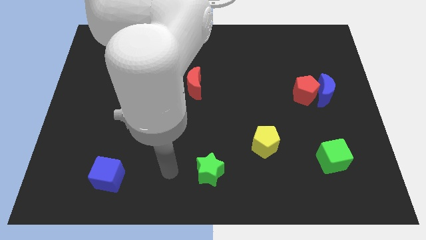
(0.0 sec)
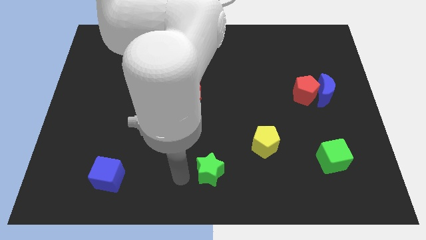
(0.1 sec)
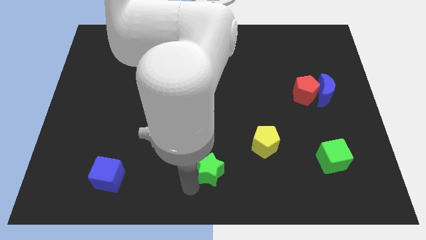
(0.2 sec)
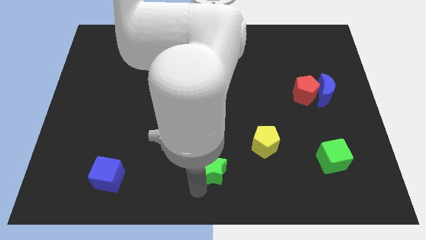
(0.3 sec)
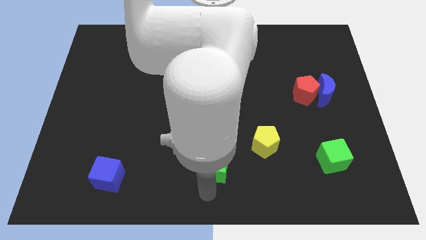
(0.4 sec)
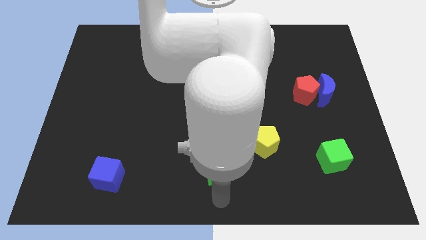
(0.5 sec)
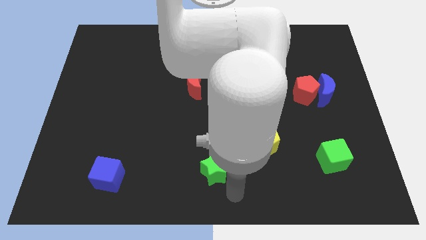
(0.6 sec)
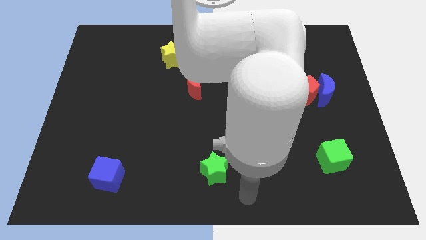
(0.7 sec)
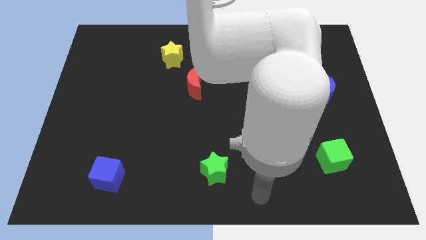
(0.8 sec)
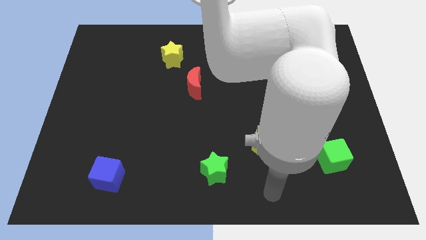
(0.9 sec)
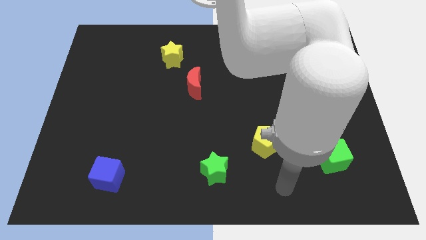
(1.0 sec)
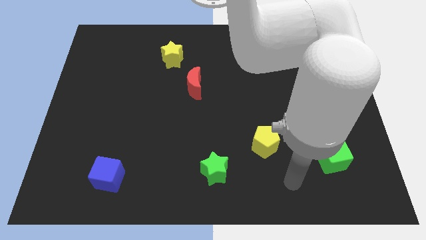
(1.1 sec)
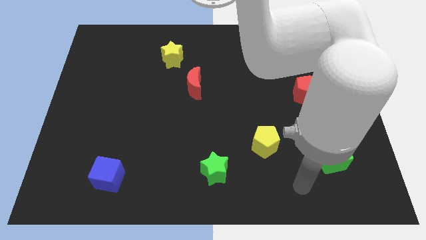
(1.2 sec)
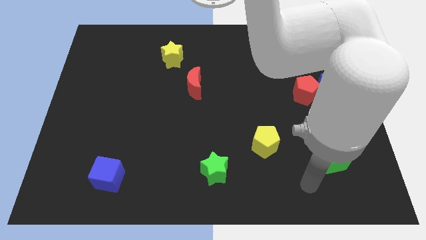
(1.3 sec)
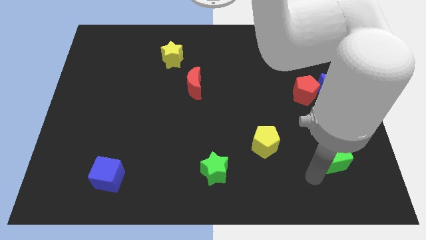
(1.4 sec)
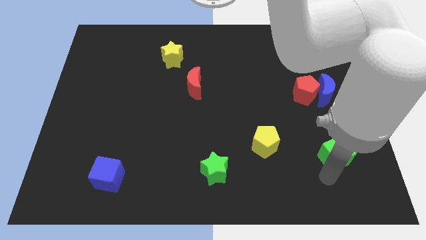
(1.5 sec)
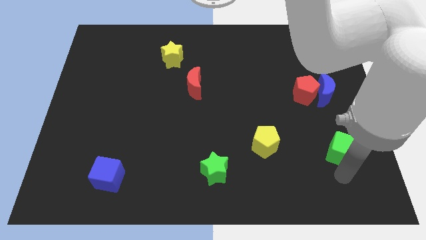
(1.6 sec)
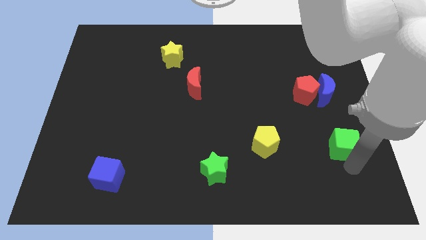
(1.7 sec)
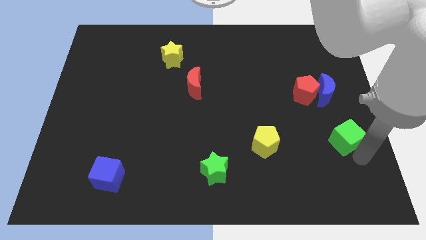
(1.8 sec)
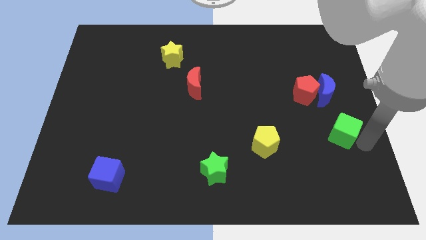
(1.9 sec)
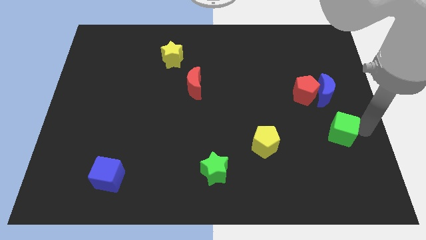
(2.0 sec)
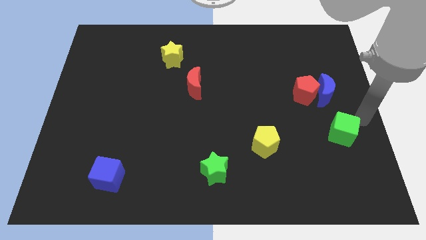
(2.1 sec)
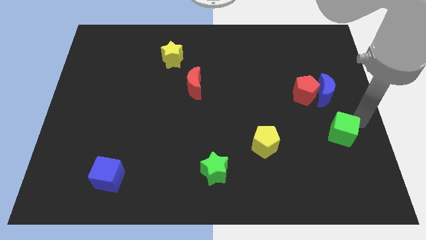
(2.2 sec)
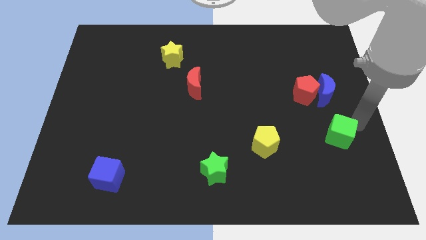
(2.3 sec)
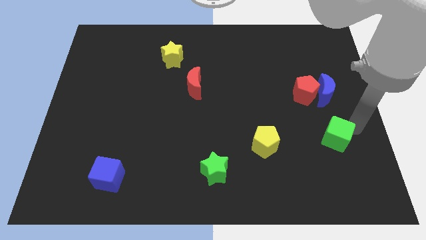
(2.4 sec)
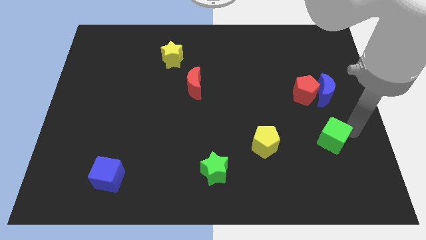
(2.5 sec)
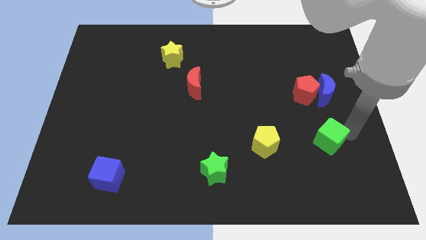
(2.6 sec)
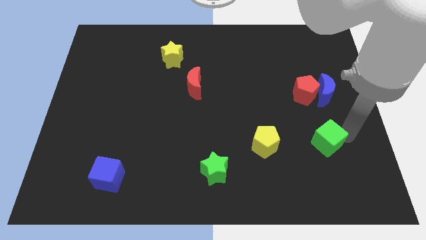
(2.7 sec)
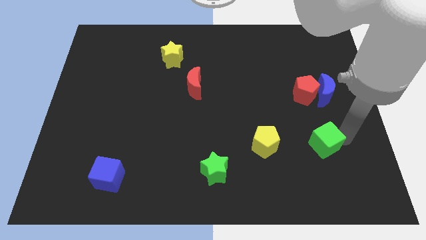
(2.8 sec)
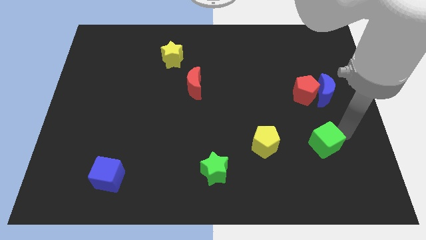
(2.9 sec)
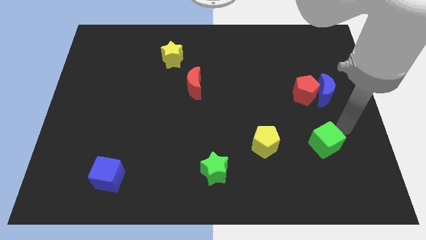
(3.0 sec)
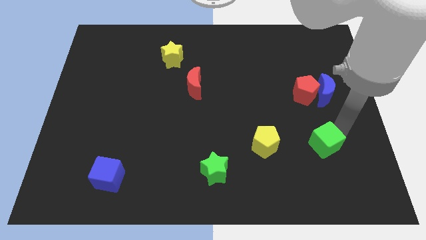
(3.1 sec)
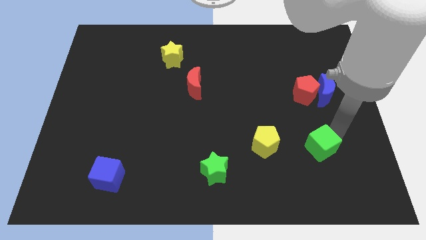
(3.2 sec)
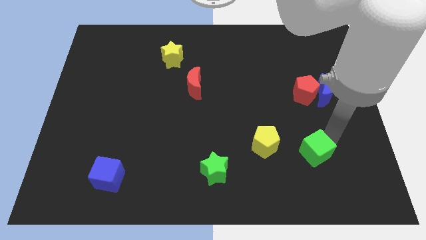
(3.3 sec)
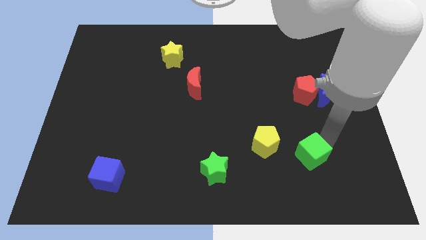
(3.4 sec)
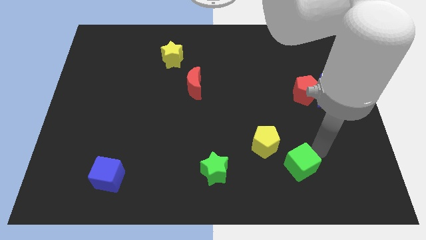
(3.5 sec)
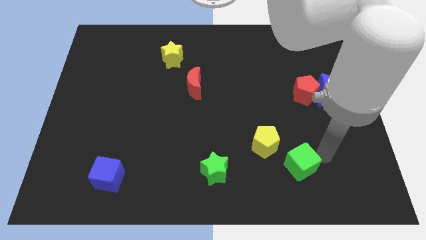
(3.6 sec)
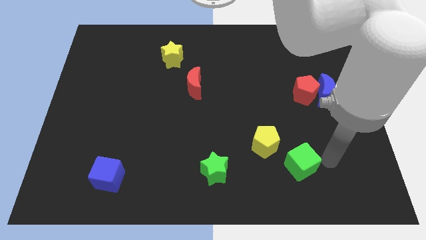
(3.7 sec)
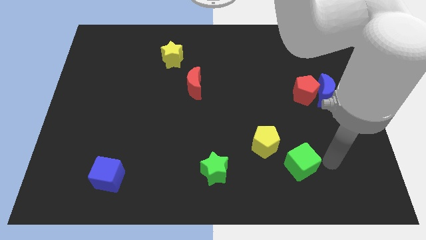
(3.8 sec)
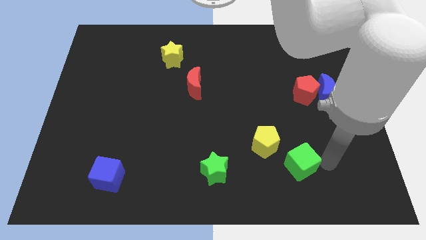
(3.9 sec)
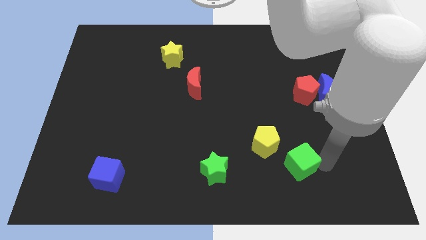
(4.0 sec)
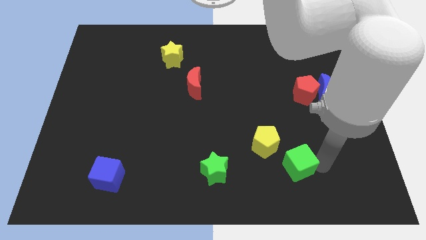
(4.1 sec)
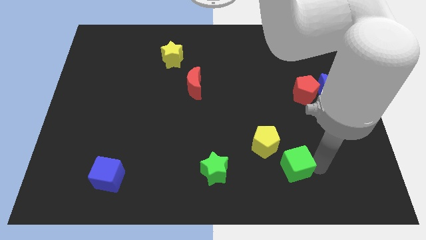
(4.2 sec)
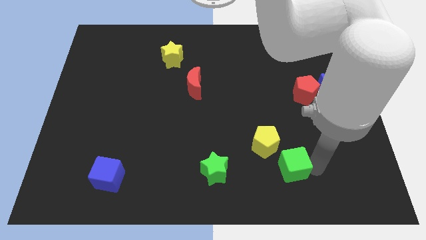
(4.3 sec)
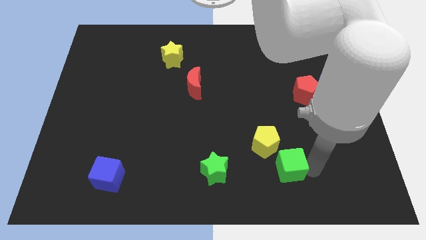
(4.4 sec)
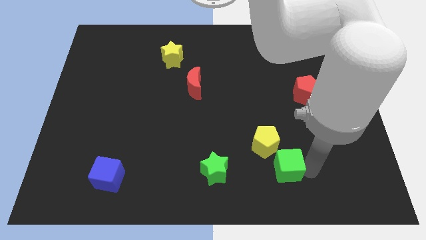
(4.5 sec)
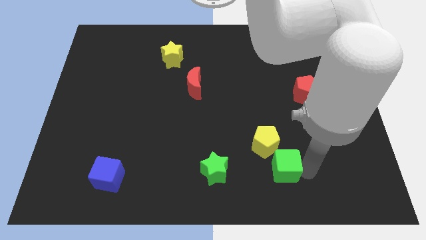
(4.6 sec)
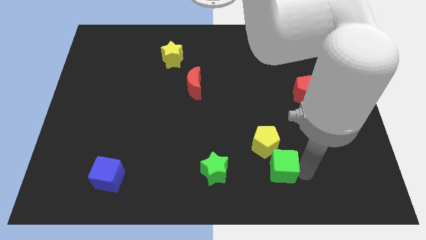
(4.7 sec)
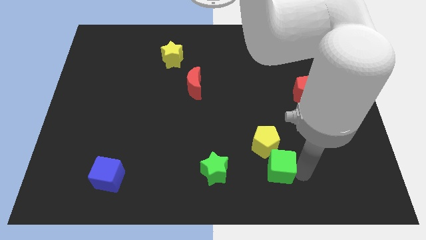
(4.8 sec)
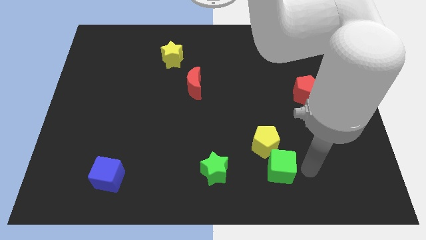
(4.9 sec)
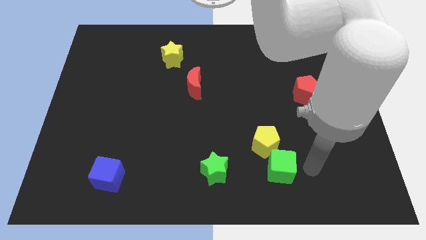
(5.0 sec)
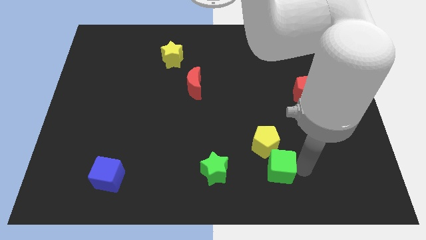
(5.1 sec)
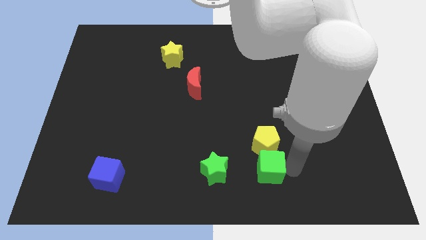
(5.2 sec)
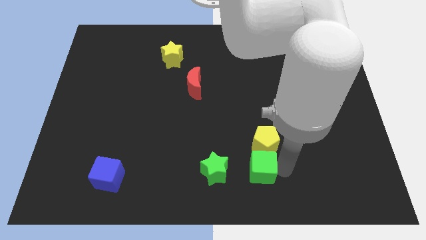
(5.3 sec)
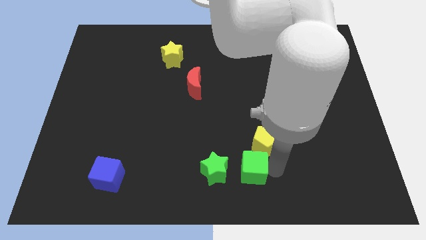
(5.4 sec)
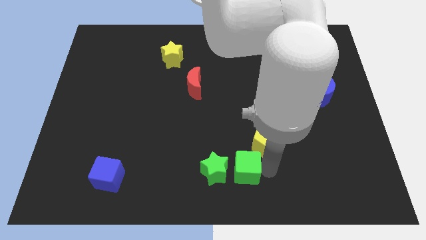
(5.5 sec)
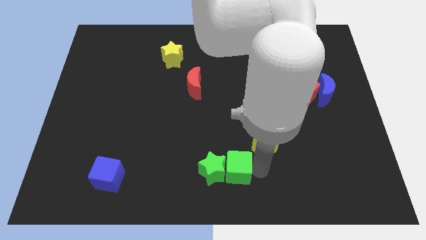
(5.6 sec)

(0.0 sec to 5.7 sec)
put the green cube to the green star

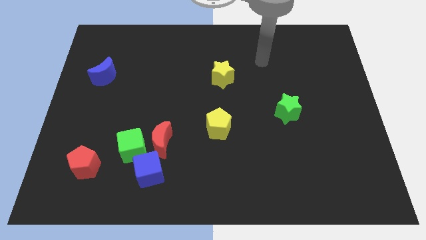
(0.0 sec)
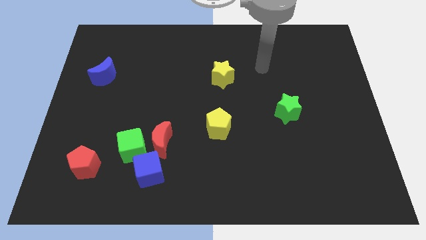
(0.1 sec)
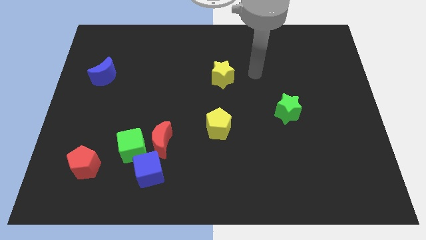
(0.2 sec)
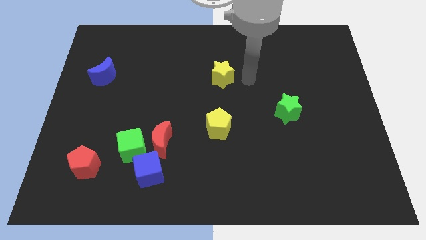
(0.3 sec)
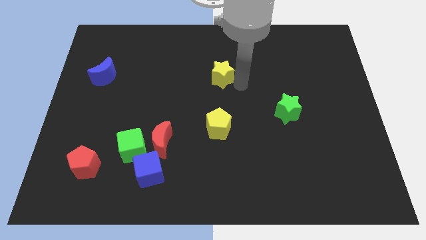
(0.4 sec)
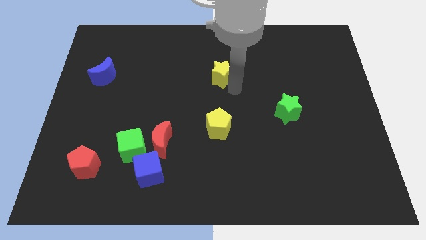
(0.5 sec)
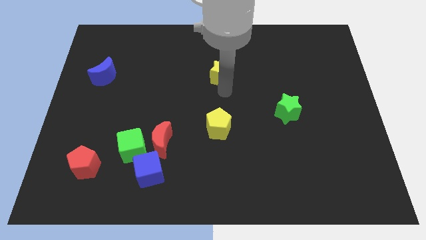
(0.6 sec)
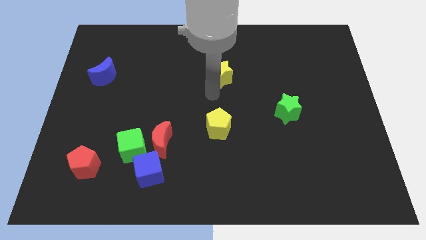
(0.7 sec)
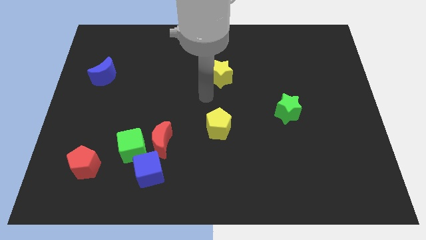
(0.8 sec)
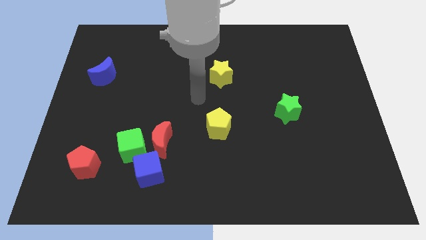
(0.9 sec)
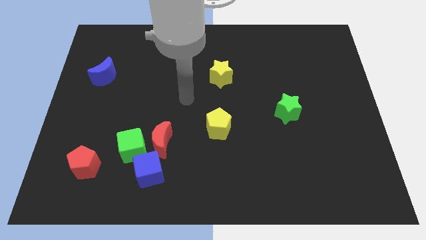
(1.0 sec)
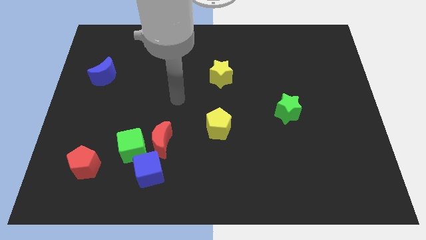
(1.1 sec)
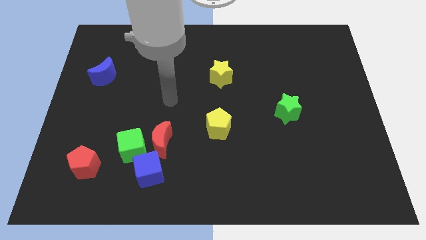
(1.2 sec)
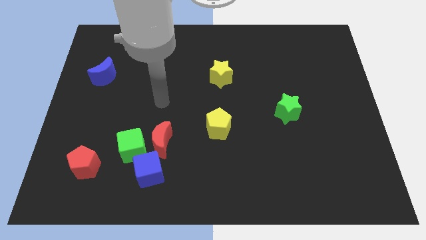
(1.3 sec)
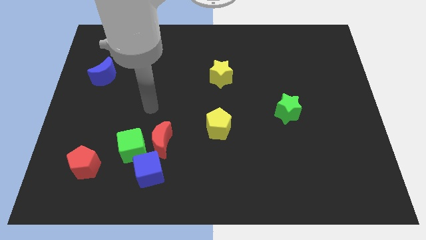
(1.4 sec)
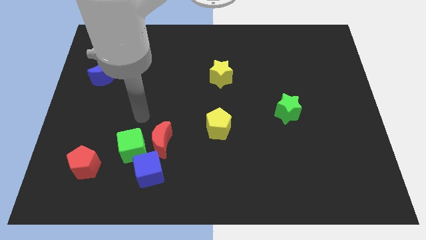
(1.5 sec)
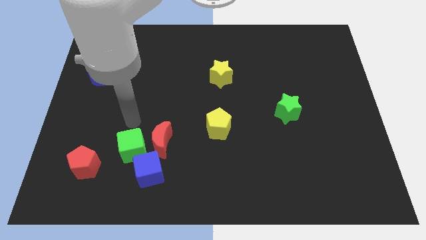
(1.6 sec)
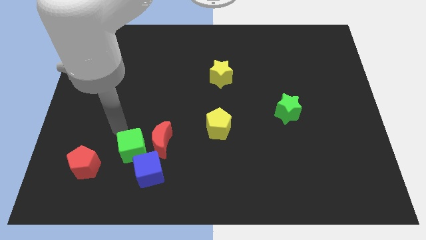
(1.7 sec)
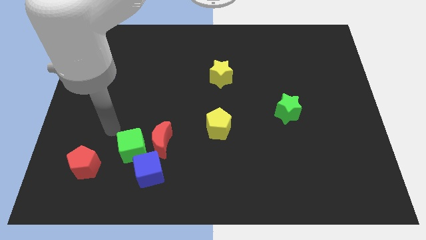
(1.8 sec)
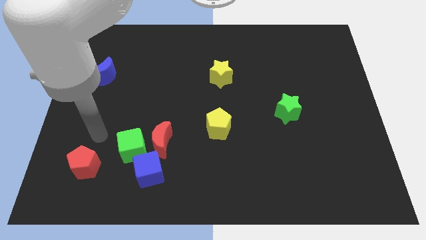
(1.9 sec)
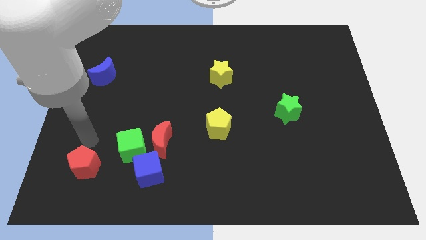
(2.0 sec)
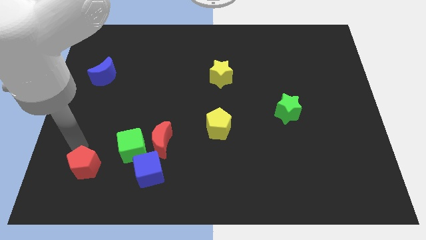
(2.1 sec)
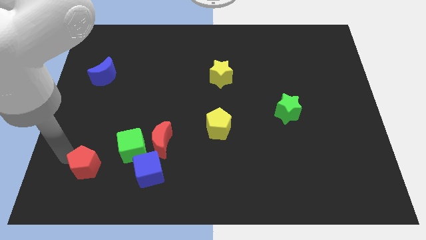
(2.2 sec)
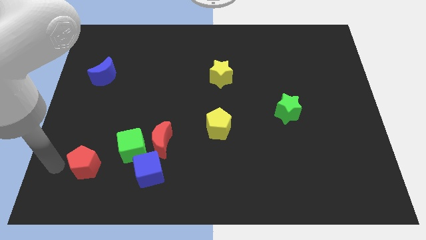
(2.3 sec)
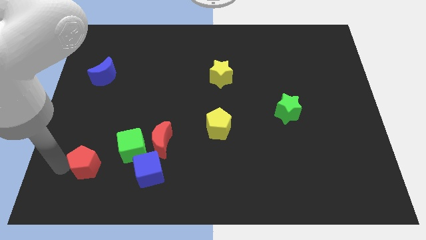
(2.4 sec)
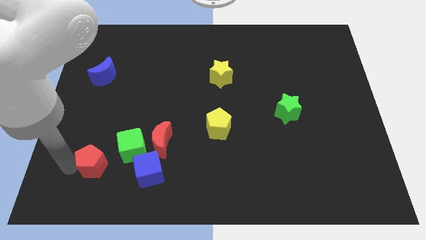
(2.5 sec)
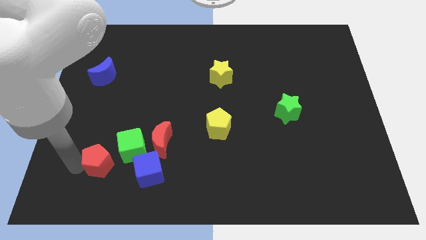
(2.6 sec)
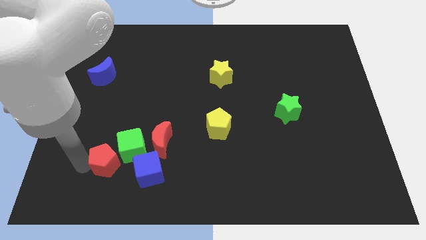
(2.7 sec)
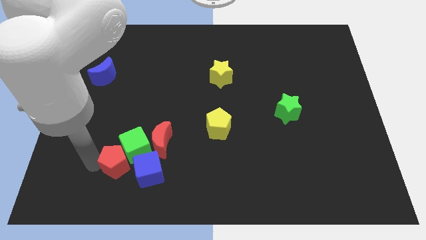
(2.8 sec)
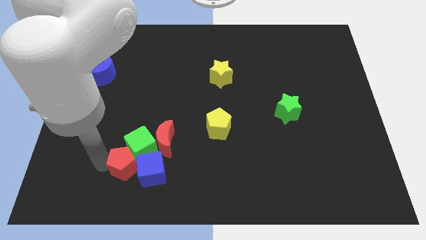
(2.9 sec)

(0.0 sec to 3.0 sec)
slide the red pentagon close to the blue cube
